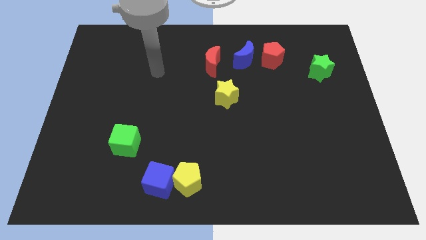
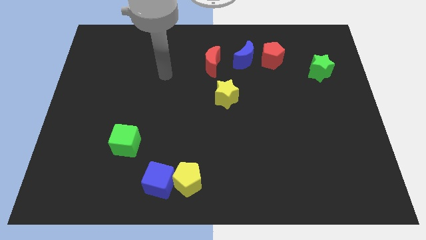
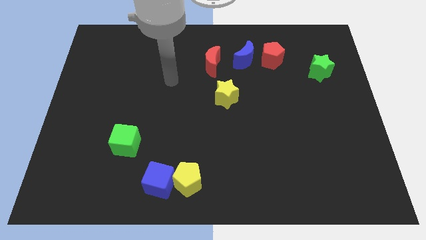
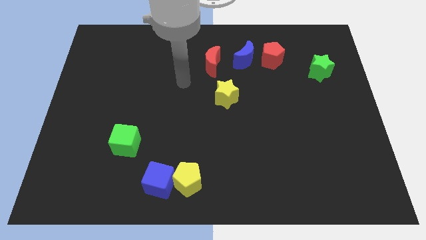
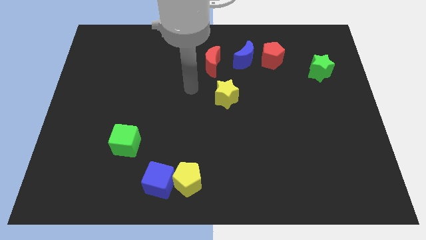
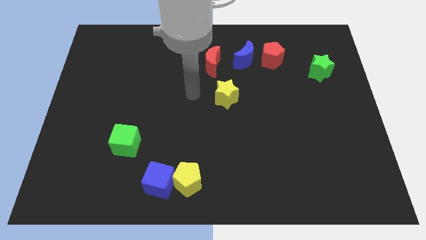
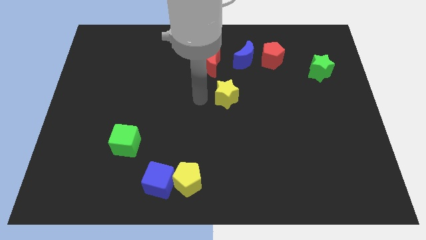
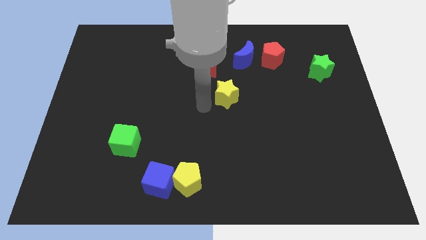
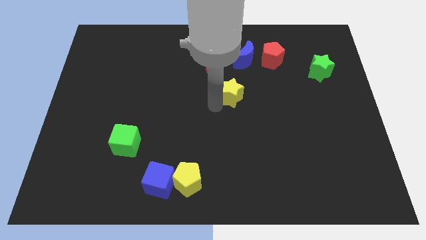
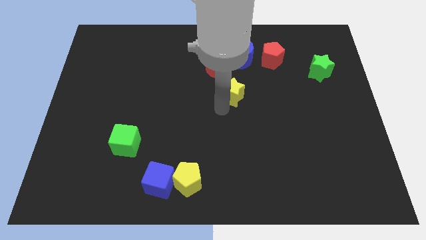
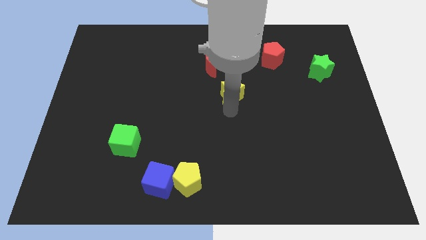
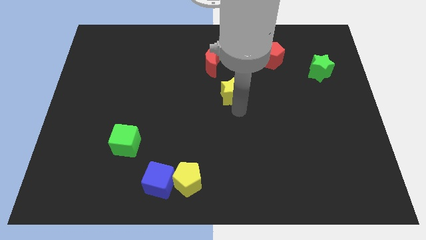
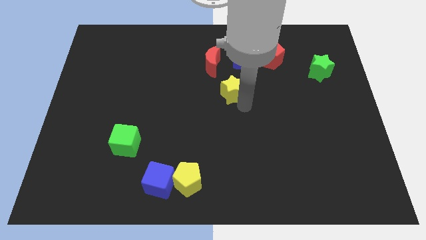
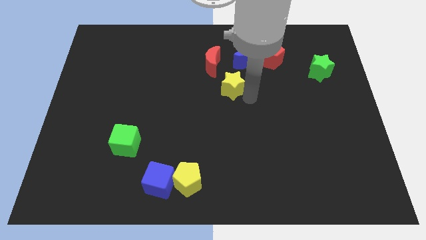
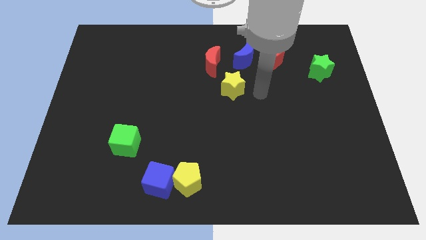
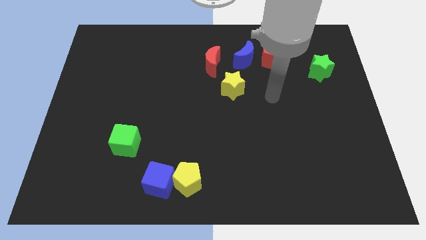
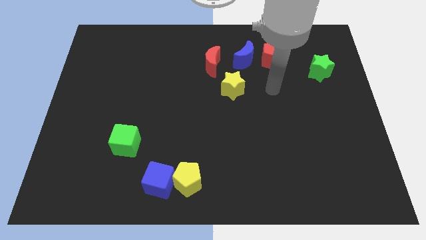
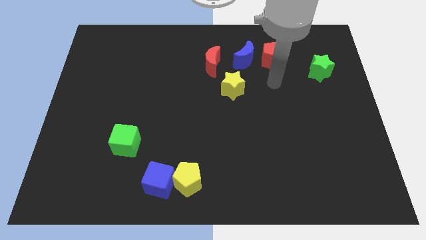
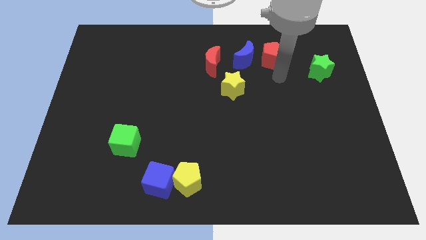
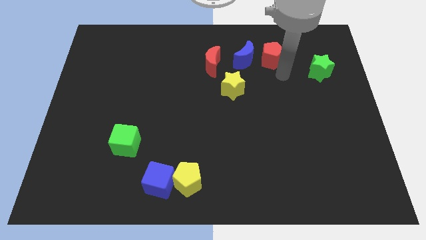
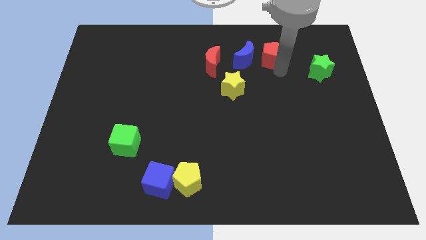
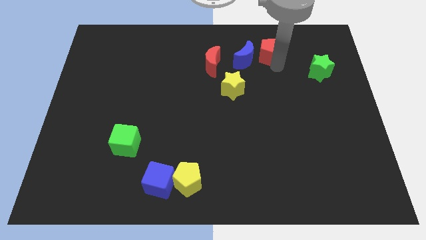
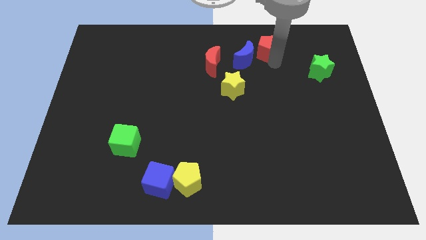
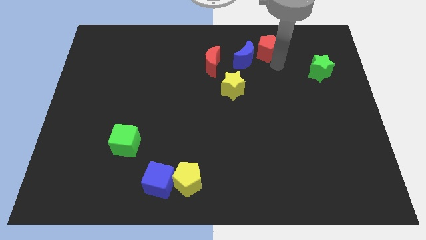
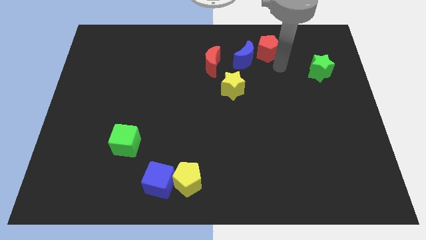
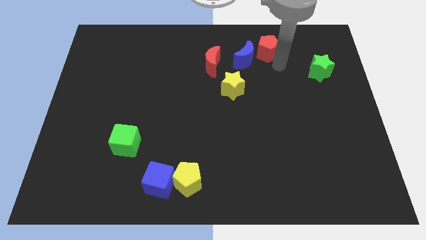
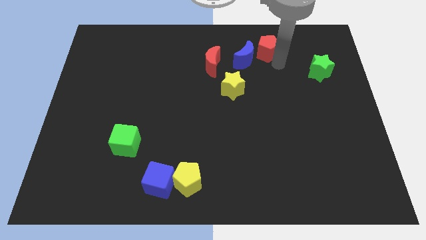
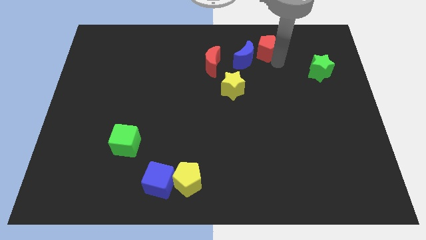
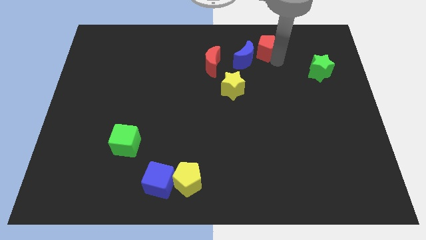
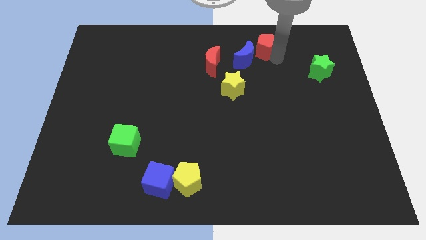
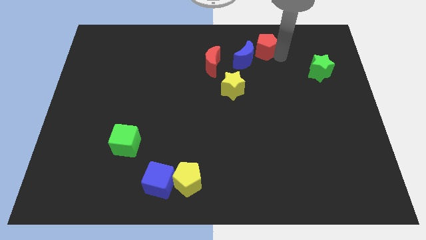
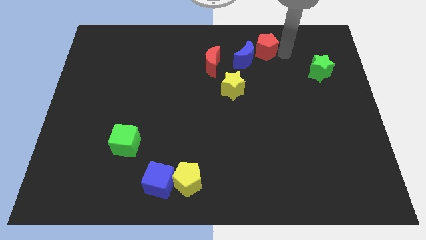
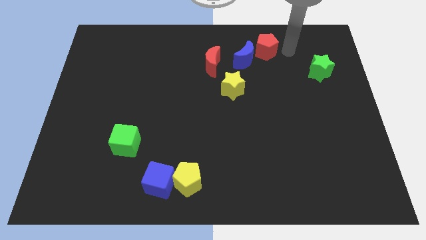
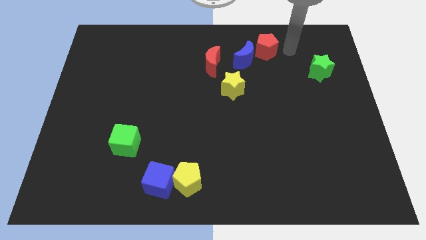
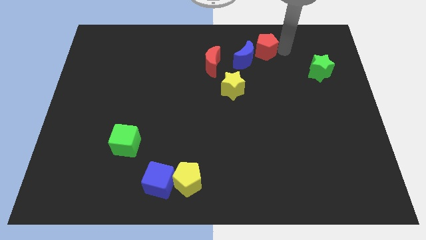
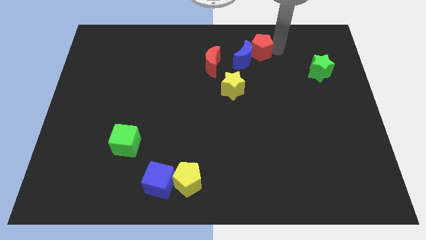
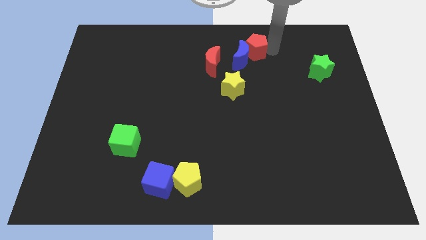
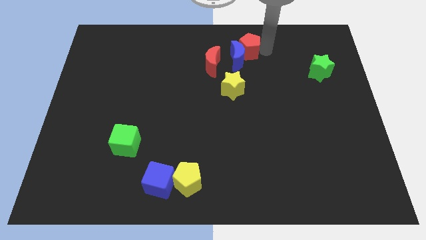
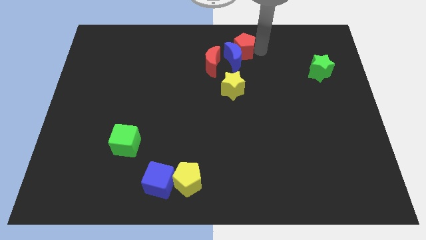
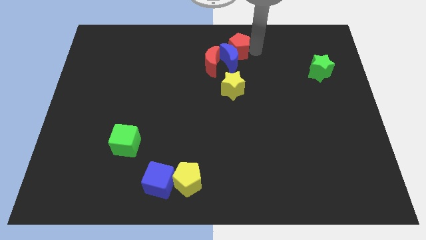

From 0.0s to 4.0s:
slightly slide the red pentagon left

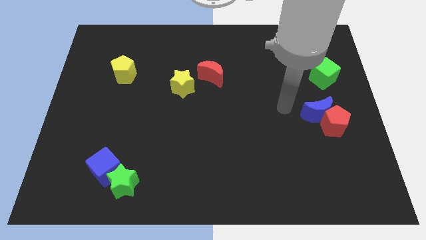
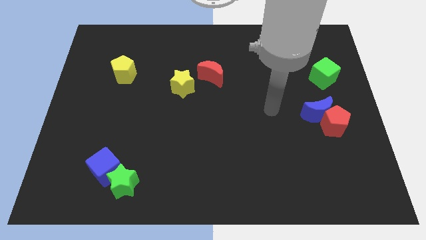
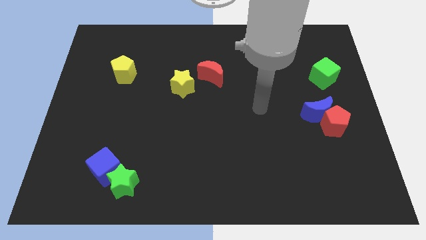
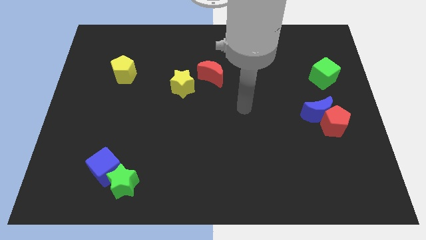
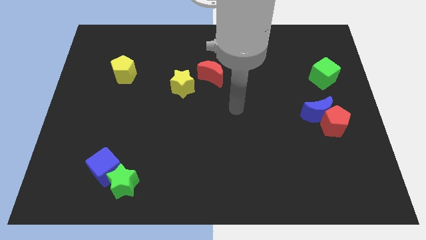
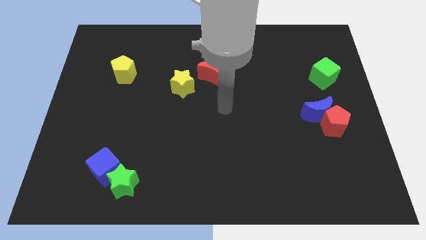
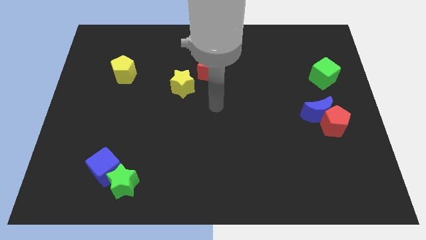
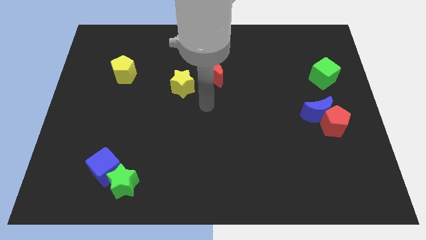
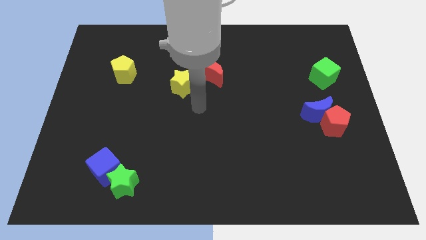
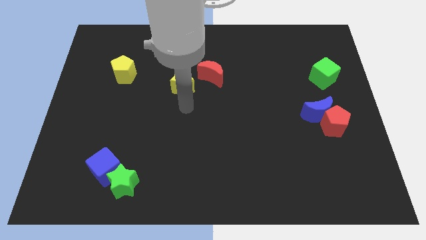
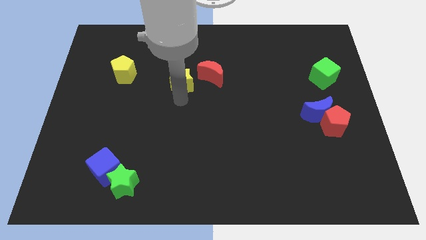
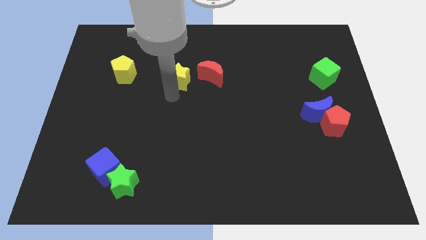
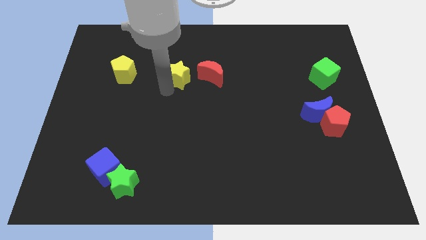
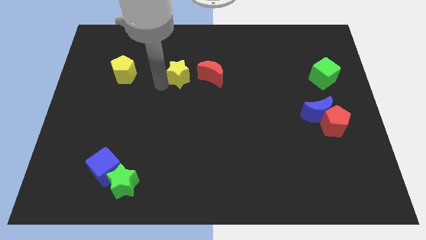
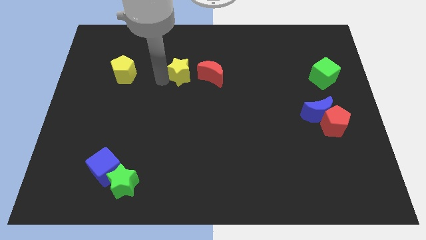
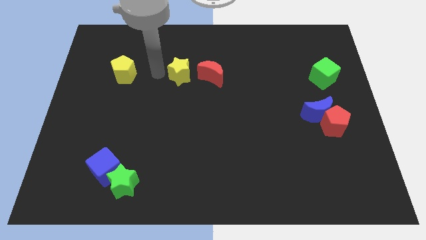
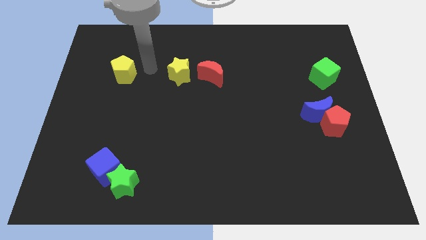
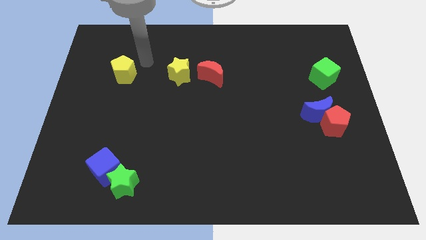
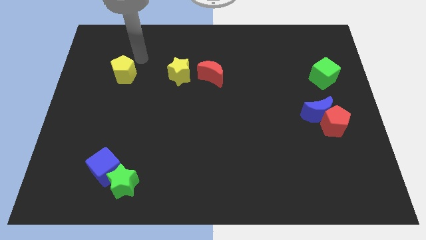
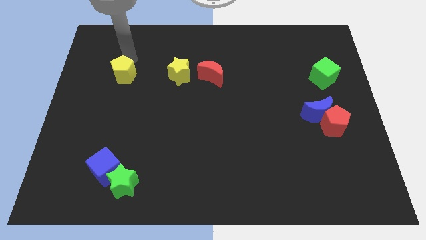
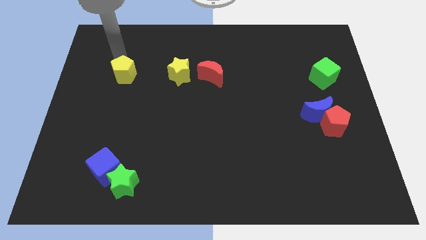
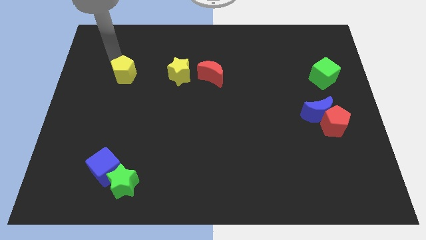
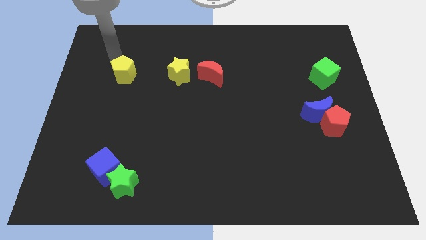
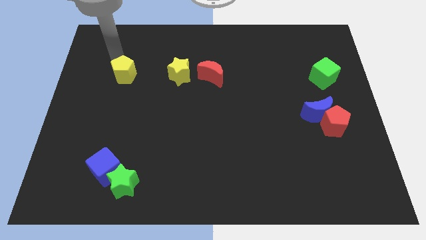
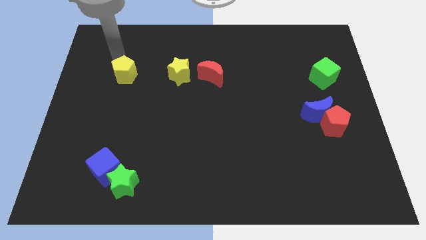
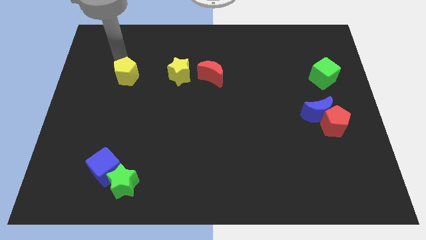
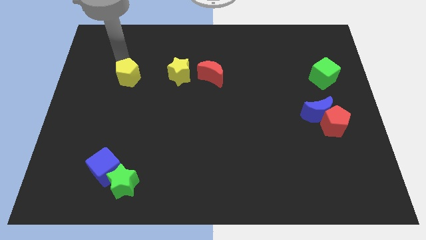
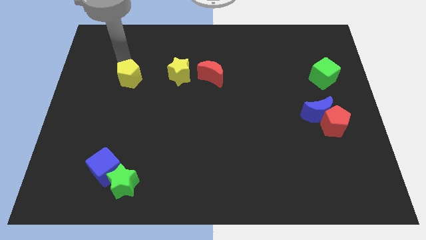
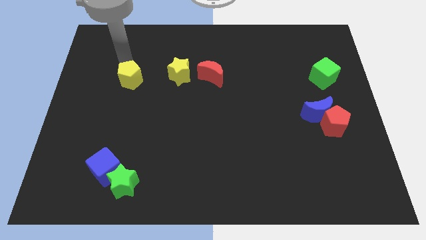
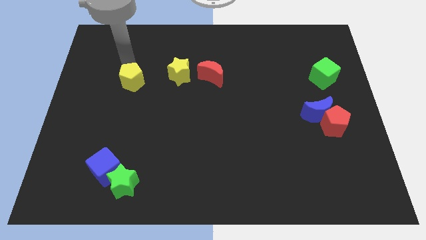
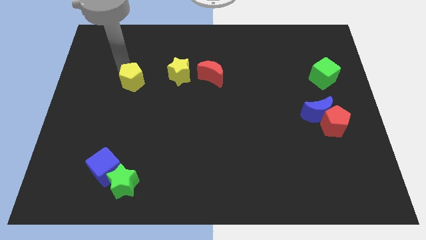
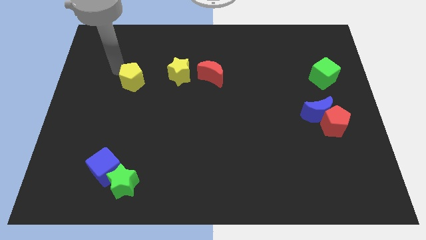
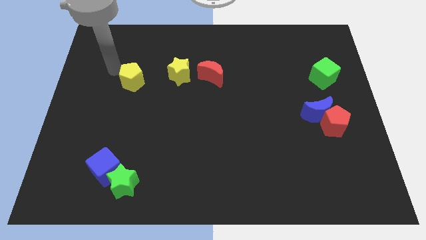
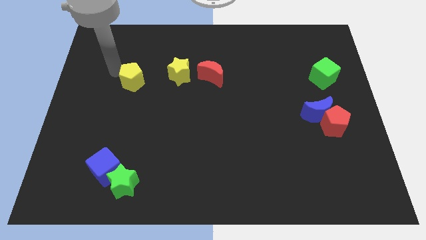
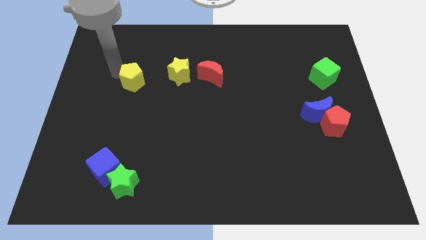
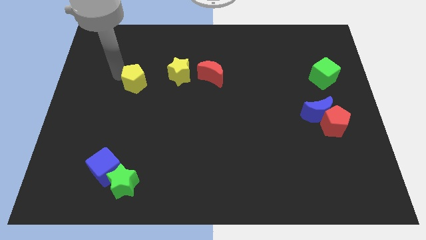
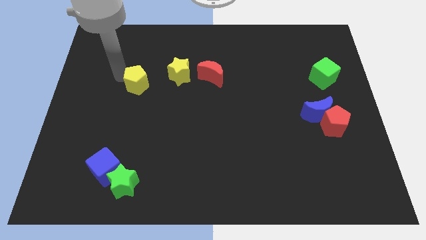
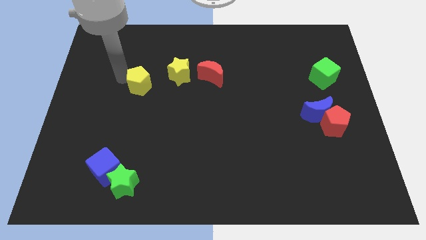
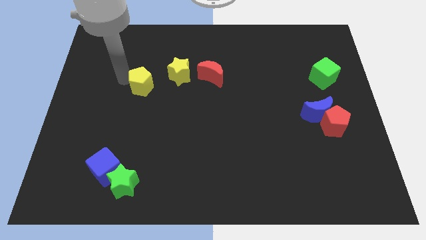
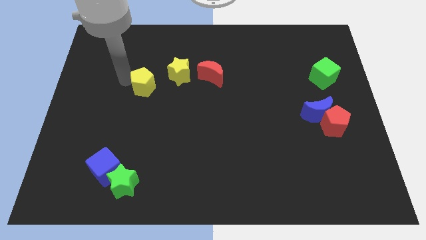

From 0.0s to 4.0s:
slightly slide the yellow pentagon downwards and then to the right
